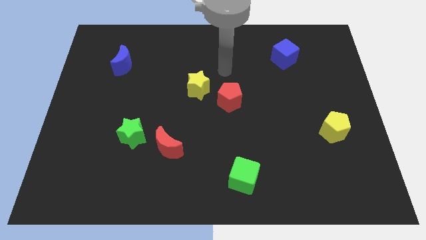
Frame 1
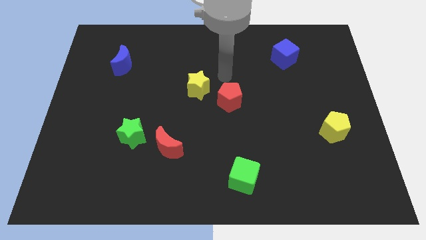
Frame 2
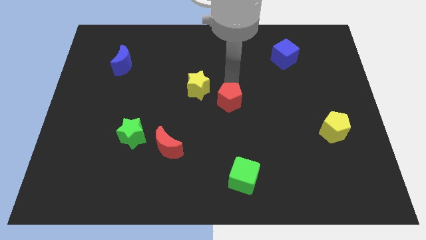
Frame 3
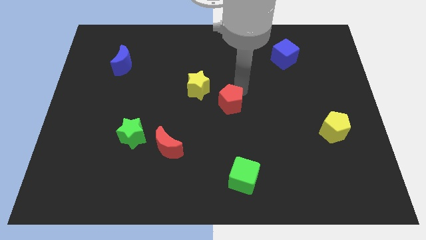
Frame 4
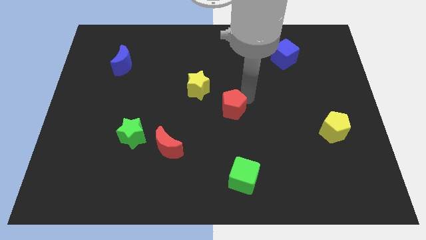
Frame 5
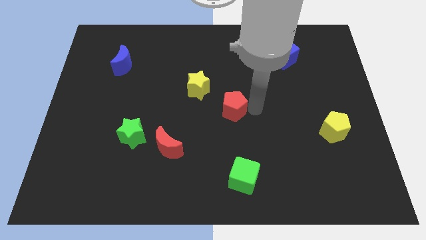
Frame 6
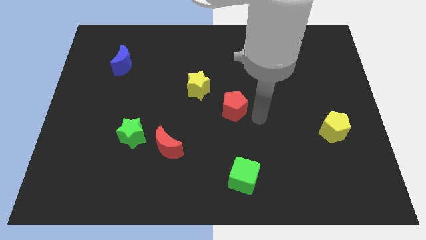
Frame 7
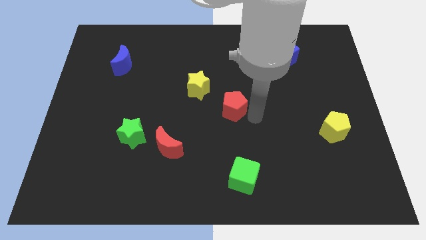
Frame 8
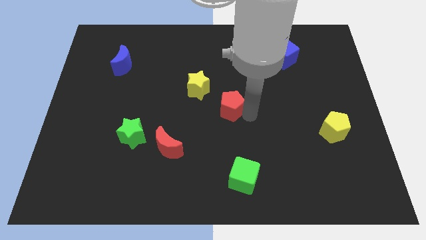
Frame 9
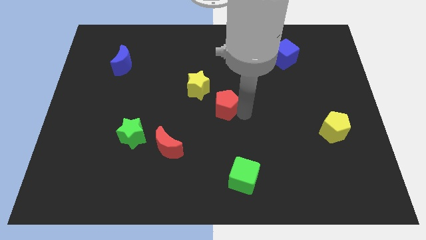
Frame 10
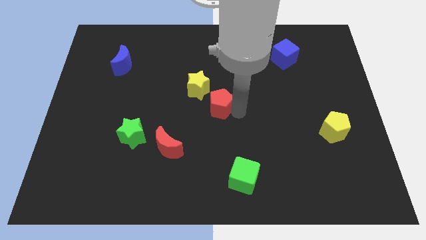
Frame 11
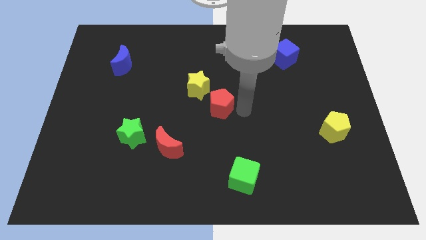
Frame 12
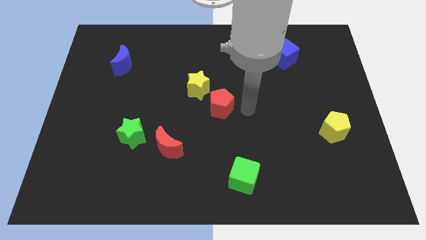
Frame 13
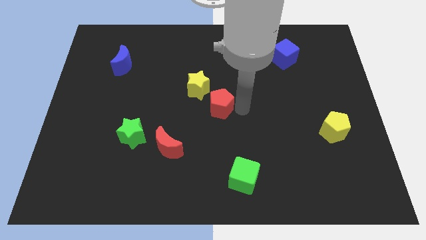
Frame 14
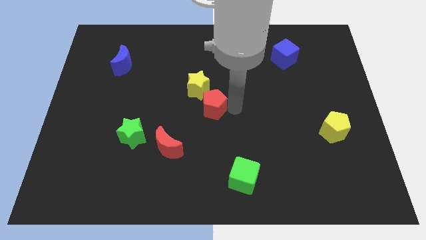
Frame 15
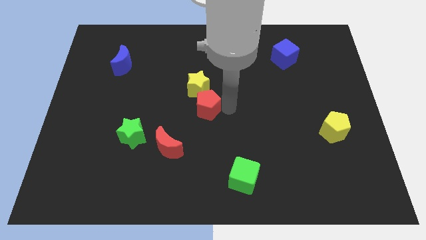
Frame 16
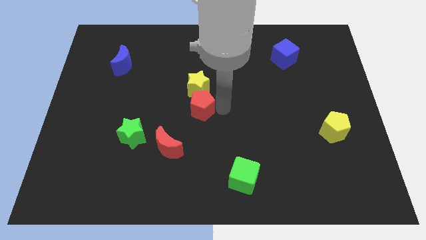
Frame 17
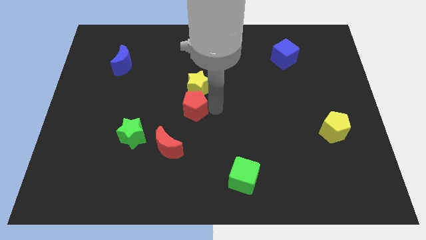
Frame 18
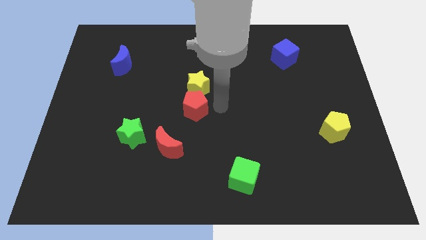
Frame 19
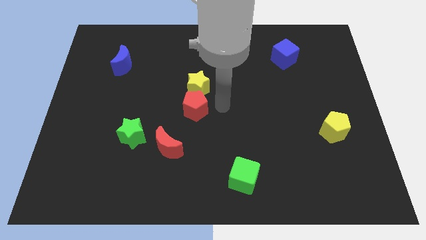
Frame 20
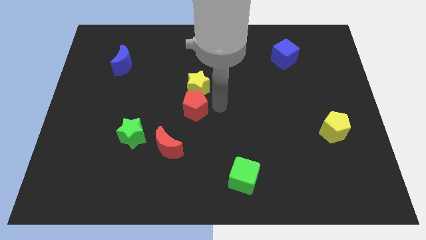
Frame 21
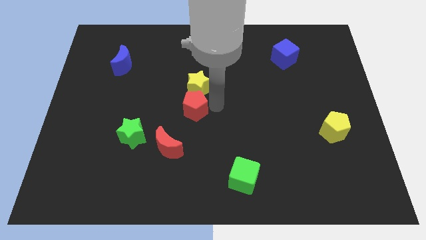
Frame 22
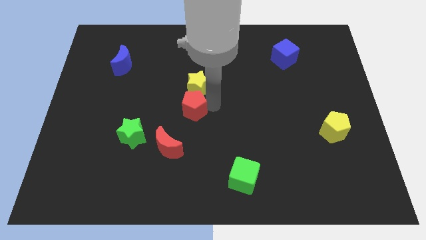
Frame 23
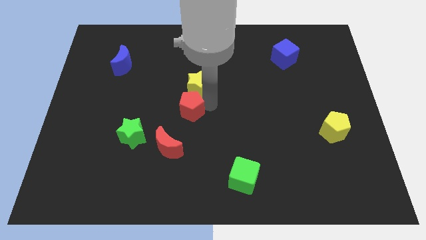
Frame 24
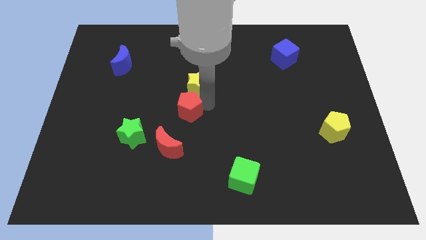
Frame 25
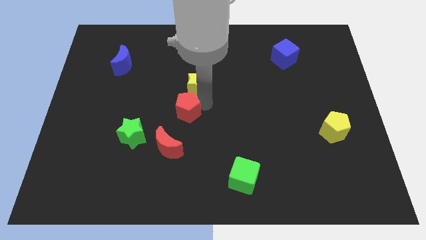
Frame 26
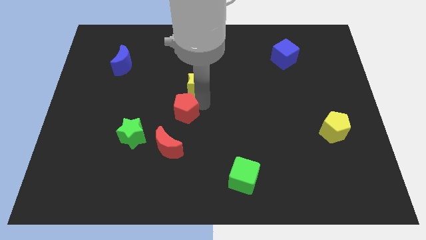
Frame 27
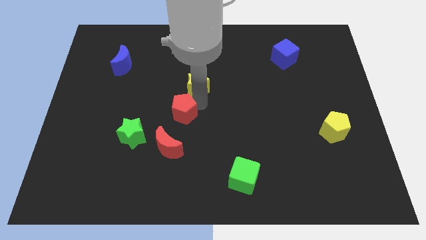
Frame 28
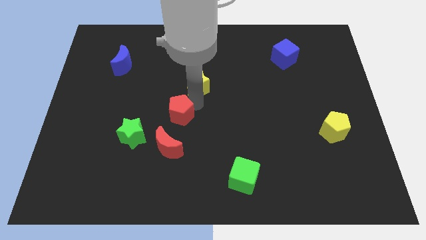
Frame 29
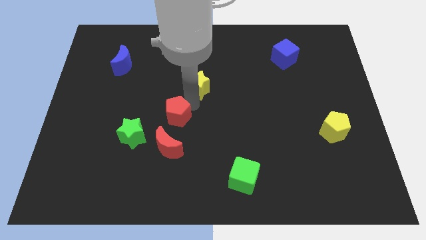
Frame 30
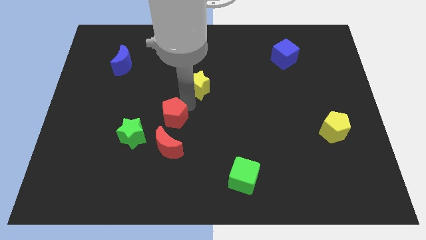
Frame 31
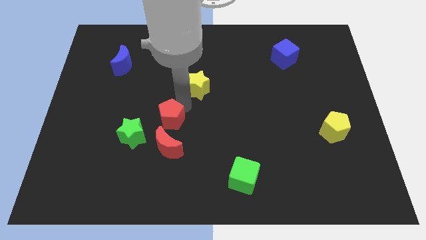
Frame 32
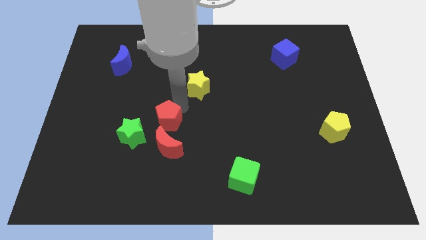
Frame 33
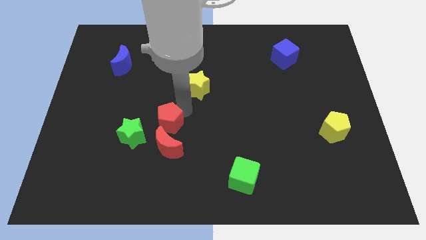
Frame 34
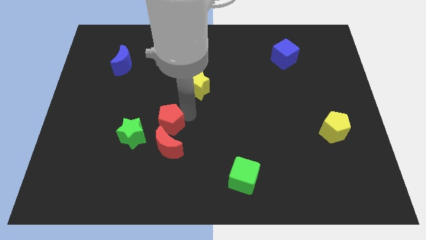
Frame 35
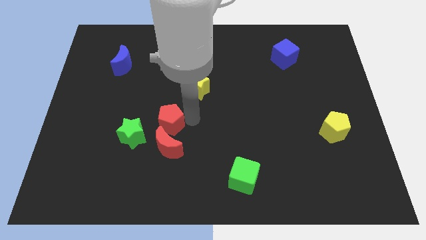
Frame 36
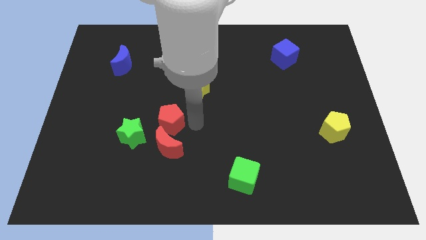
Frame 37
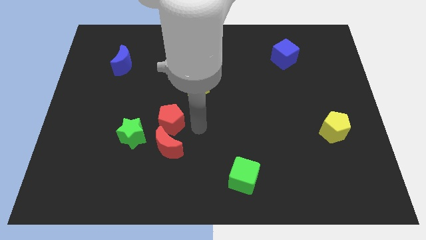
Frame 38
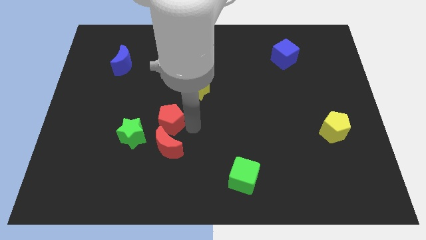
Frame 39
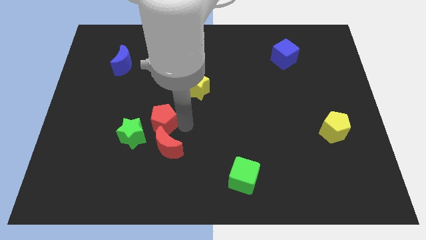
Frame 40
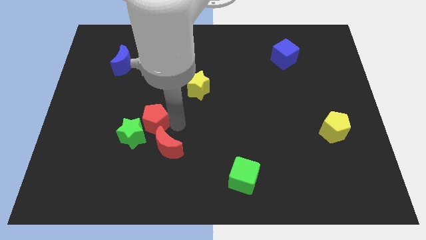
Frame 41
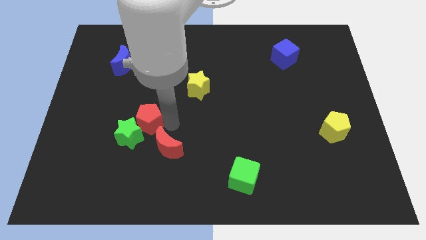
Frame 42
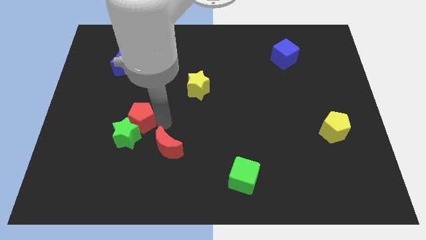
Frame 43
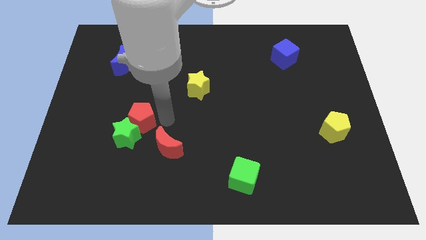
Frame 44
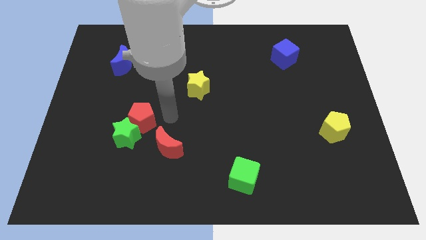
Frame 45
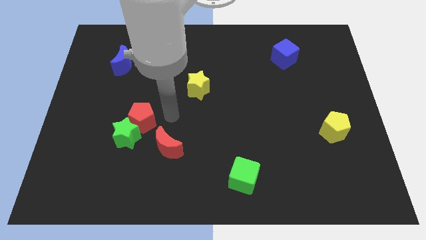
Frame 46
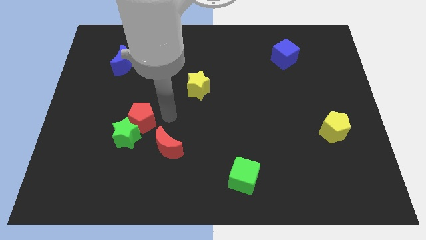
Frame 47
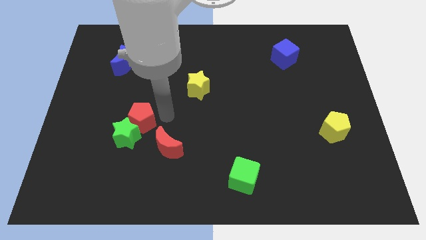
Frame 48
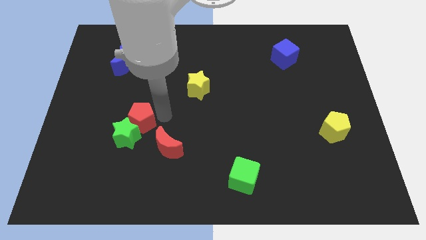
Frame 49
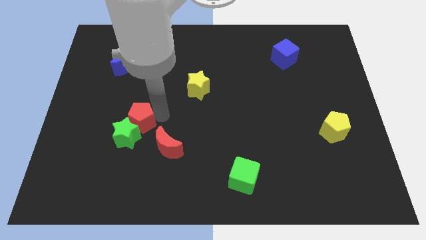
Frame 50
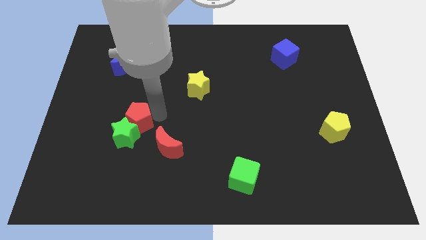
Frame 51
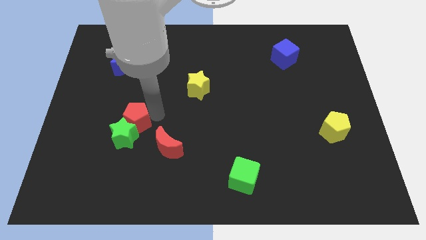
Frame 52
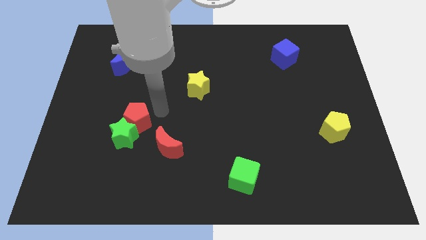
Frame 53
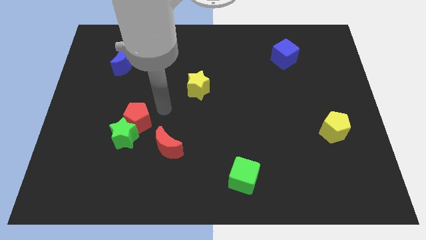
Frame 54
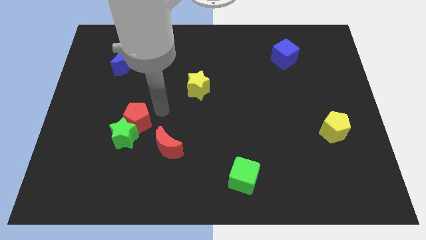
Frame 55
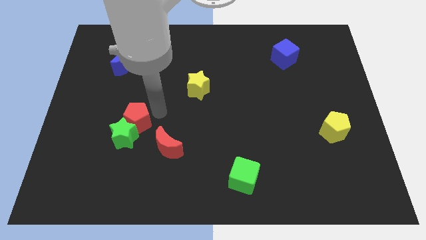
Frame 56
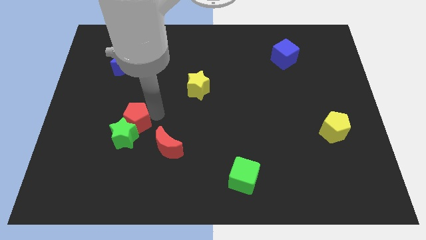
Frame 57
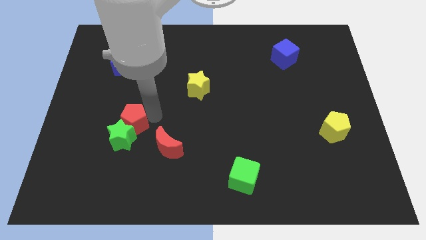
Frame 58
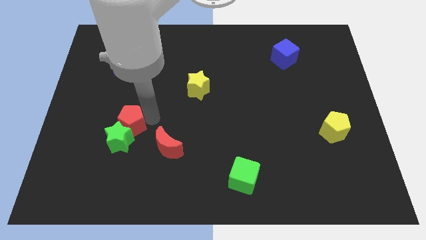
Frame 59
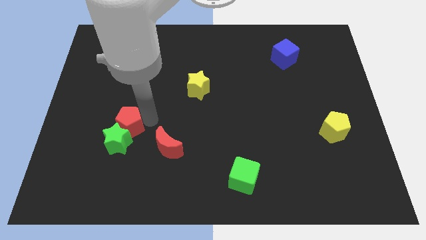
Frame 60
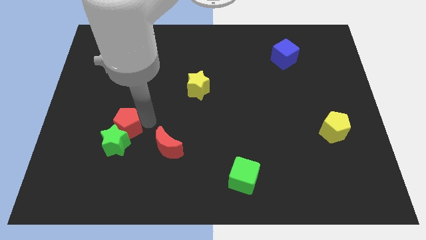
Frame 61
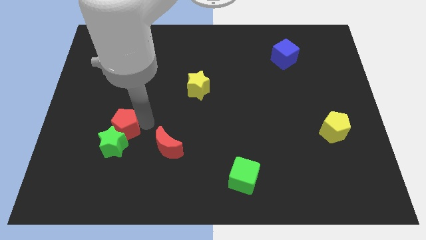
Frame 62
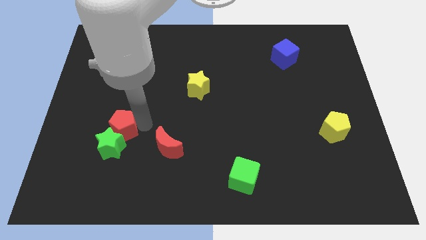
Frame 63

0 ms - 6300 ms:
push the red pentagon left of the red moon

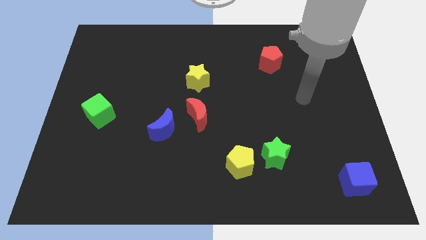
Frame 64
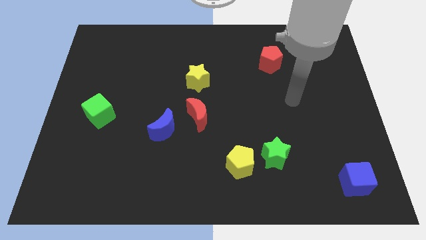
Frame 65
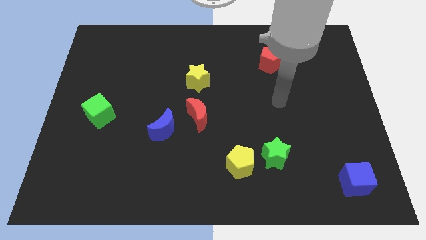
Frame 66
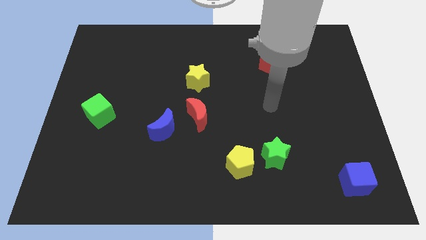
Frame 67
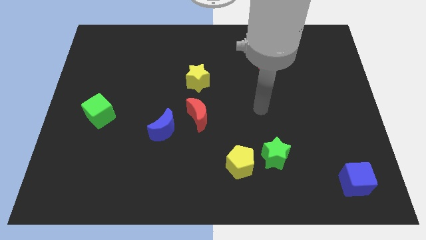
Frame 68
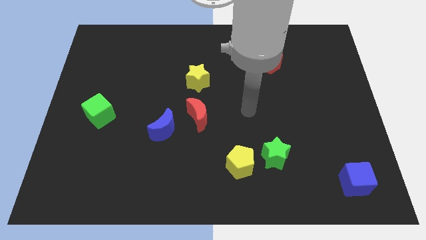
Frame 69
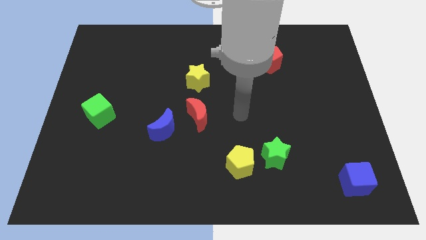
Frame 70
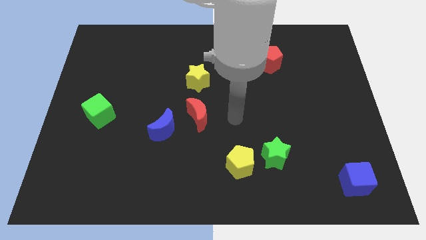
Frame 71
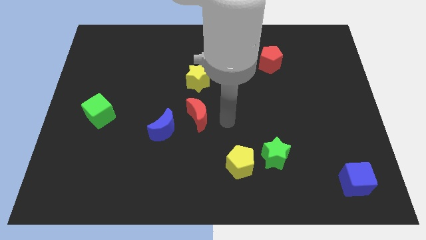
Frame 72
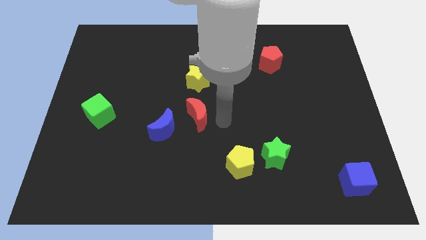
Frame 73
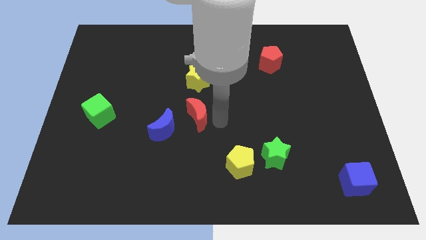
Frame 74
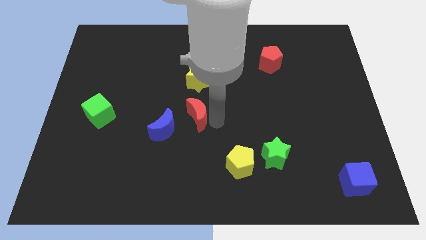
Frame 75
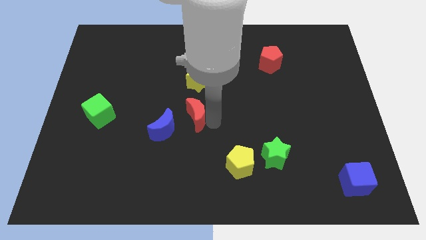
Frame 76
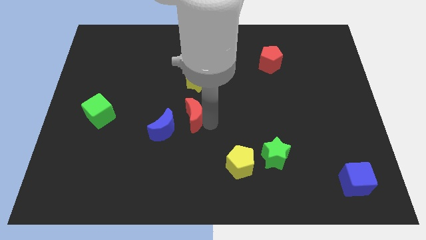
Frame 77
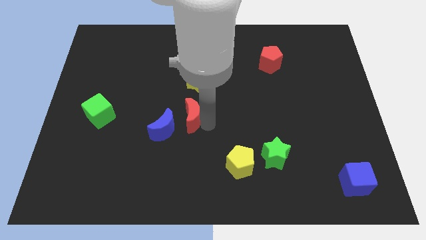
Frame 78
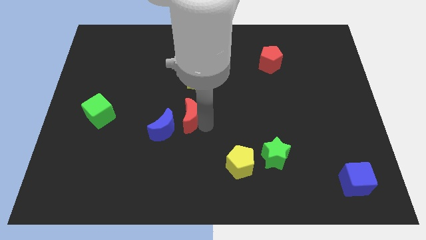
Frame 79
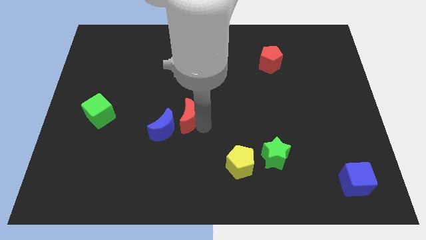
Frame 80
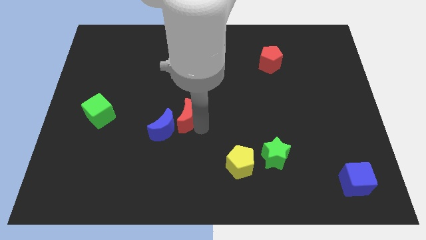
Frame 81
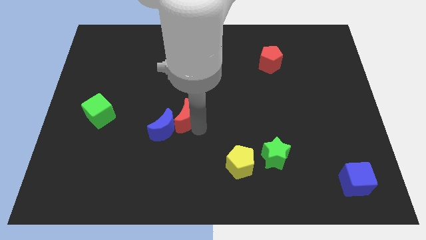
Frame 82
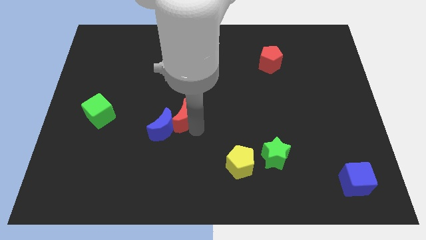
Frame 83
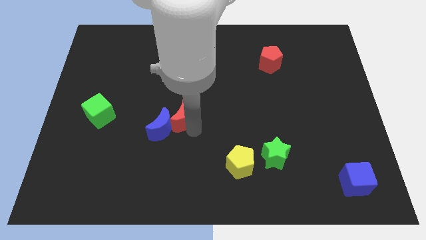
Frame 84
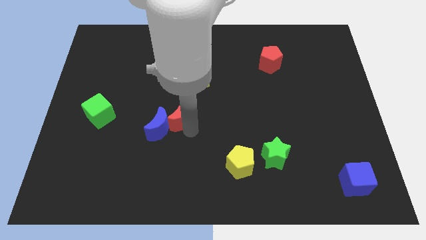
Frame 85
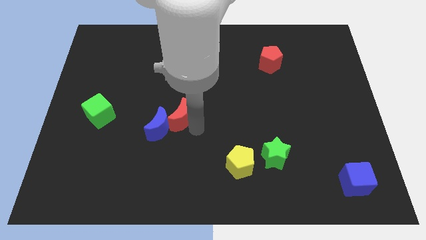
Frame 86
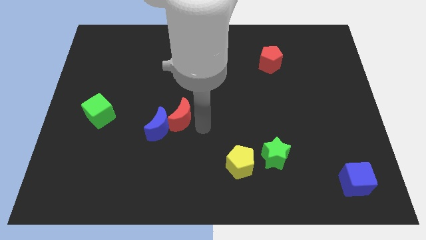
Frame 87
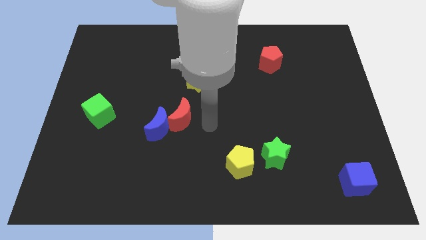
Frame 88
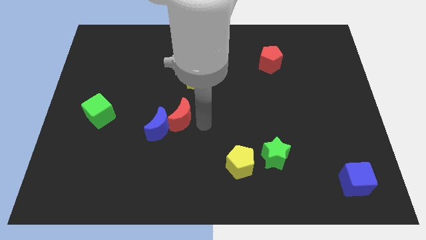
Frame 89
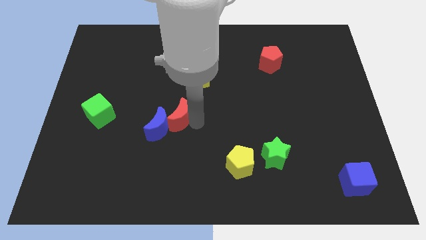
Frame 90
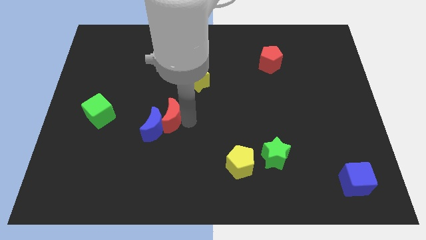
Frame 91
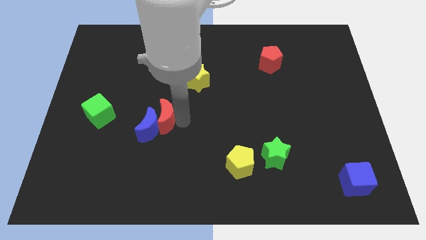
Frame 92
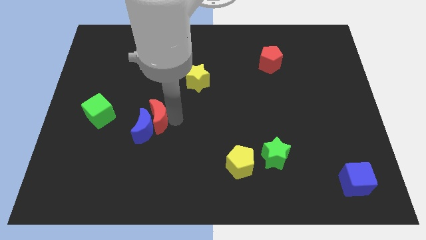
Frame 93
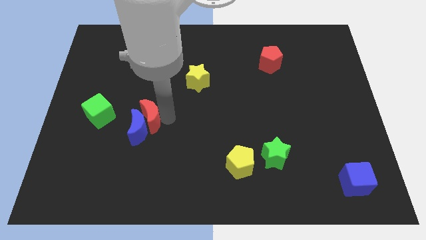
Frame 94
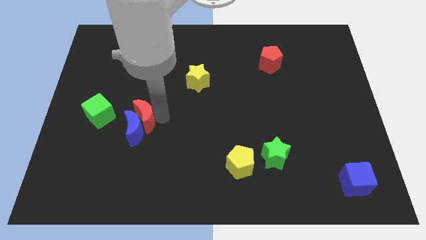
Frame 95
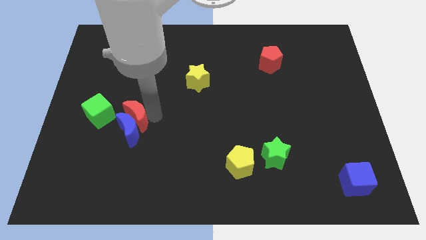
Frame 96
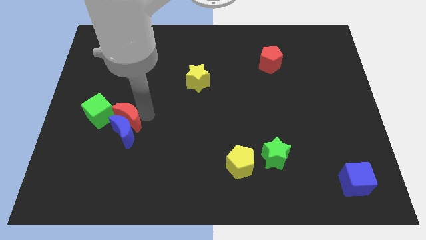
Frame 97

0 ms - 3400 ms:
slide the red moon to the bottom right side of the green cube
